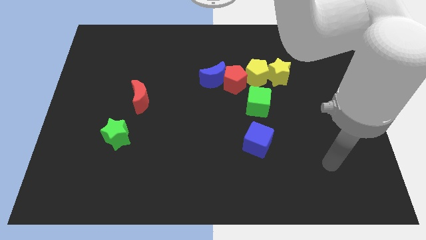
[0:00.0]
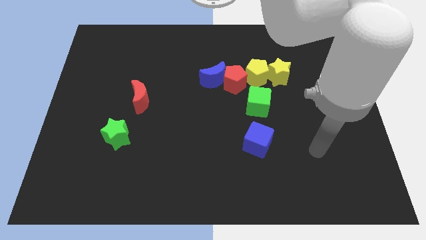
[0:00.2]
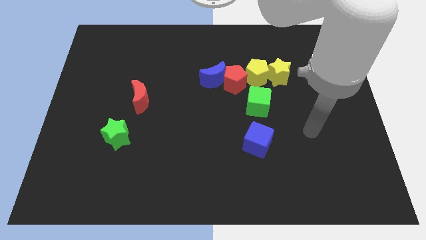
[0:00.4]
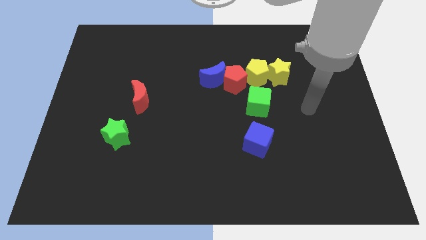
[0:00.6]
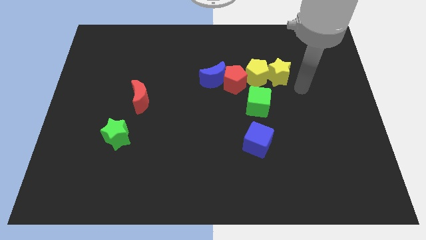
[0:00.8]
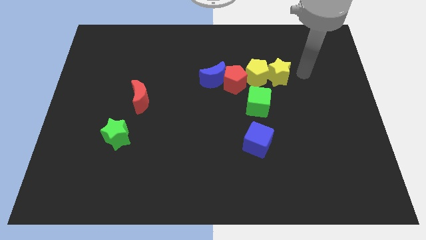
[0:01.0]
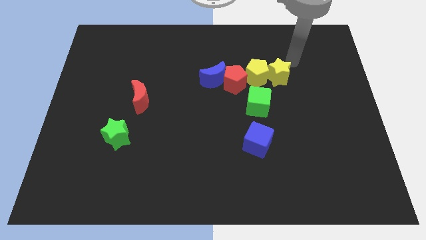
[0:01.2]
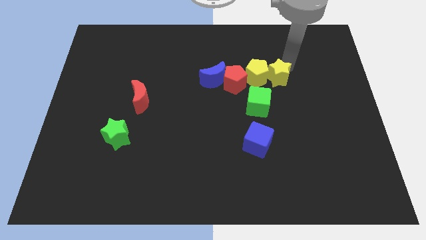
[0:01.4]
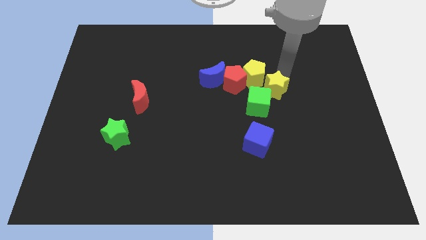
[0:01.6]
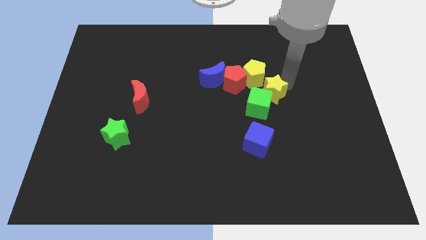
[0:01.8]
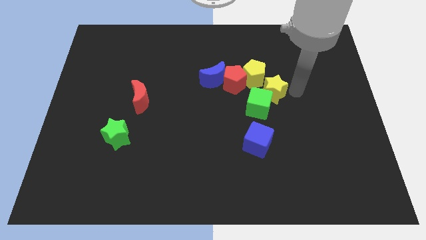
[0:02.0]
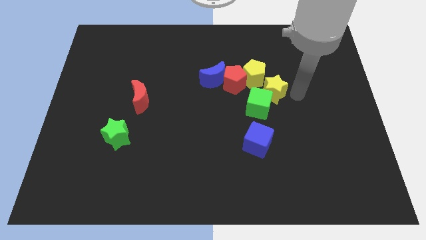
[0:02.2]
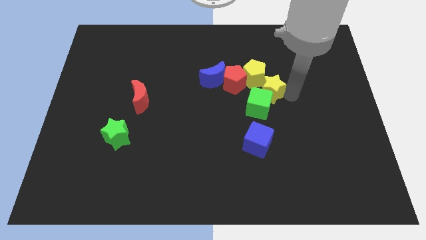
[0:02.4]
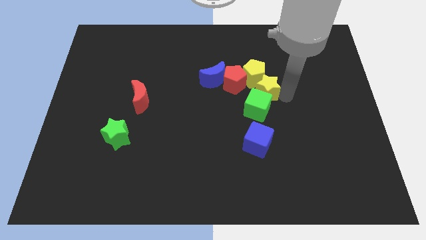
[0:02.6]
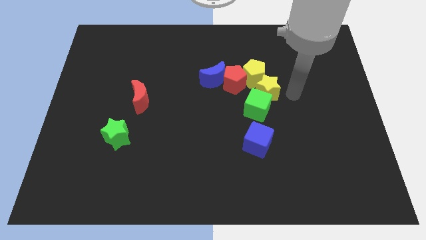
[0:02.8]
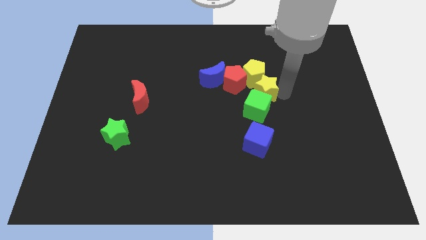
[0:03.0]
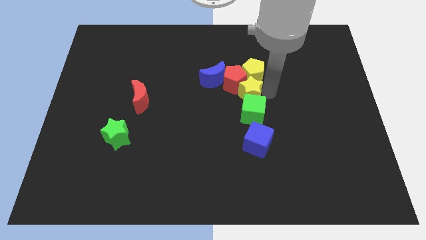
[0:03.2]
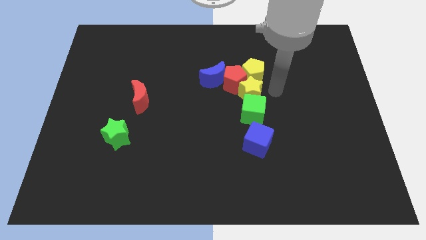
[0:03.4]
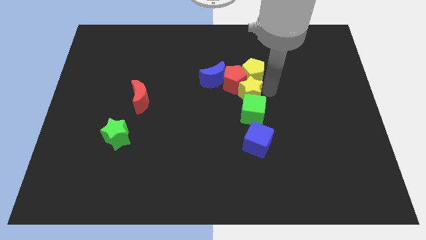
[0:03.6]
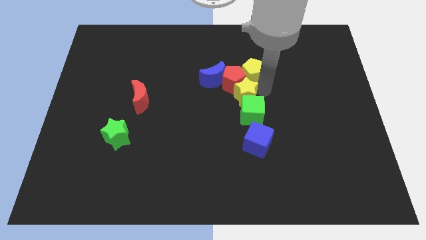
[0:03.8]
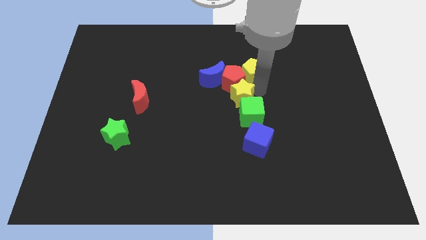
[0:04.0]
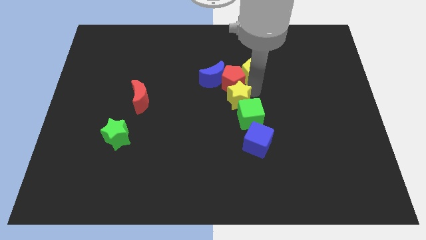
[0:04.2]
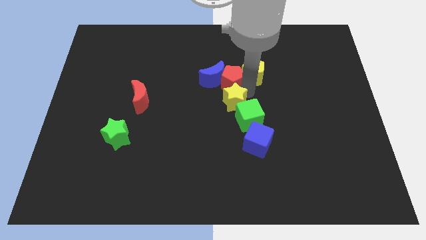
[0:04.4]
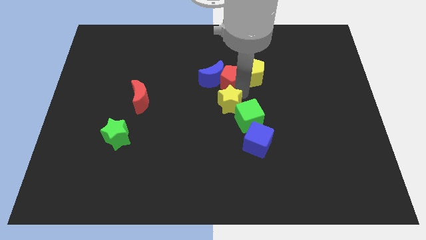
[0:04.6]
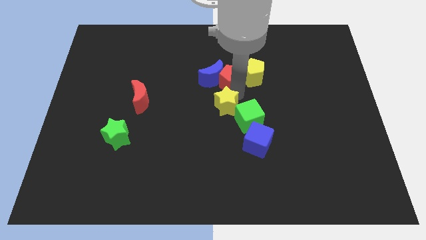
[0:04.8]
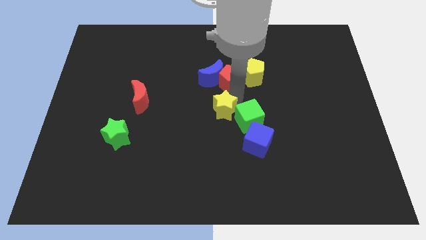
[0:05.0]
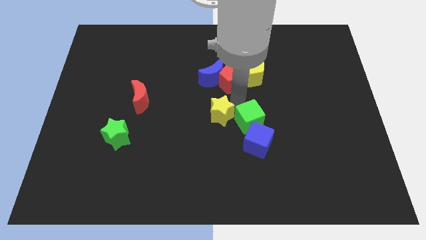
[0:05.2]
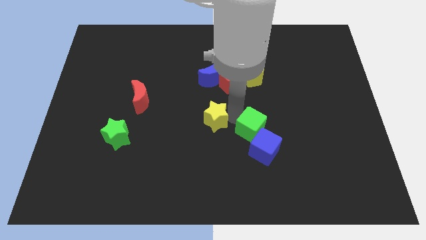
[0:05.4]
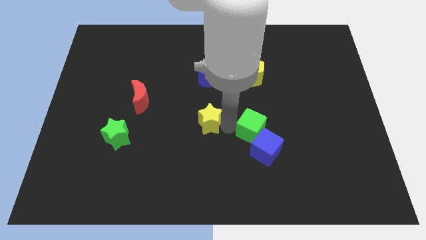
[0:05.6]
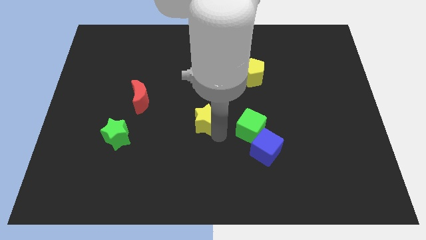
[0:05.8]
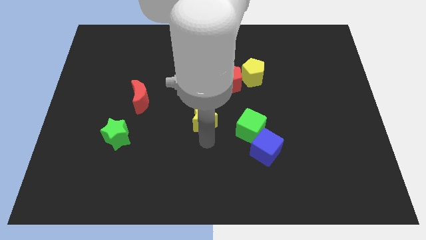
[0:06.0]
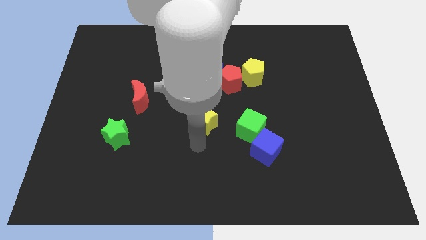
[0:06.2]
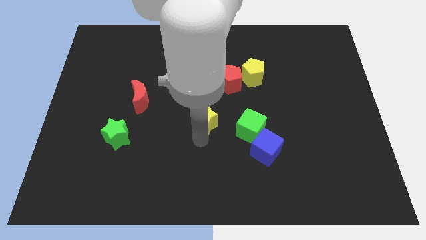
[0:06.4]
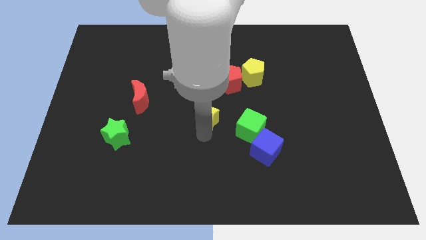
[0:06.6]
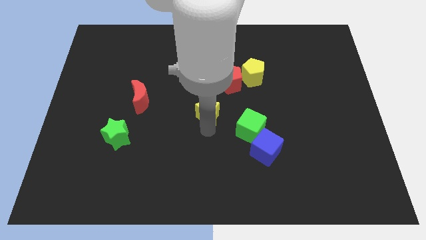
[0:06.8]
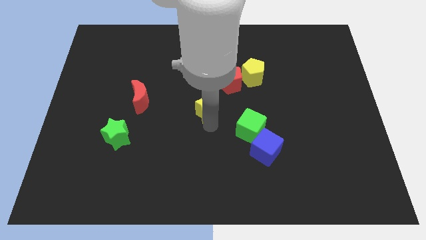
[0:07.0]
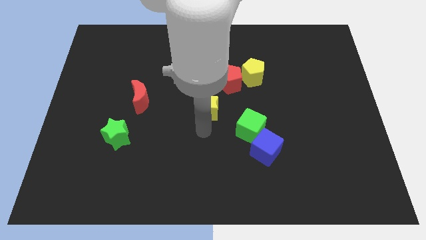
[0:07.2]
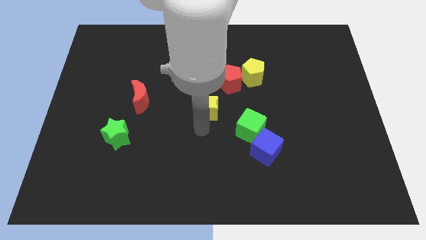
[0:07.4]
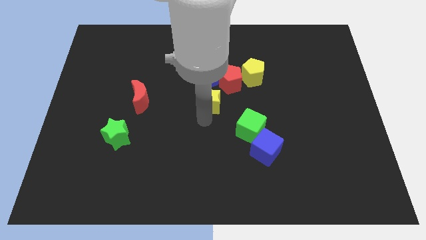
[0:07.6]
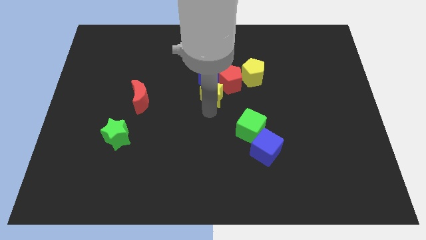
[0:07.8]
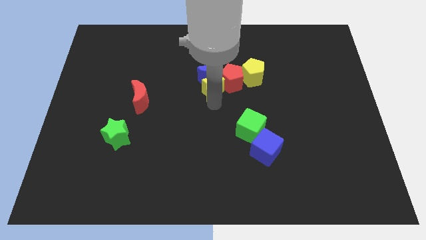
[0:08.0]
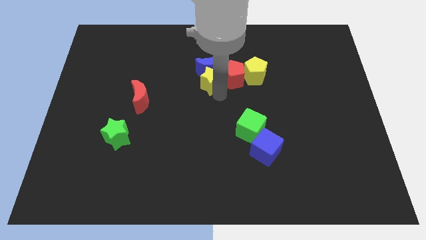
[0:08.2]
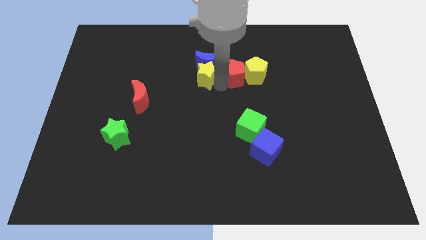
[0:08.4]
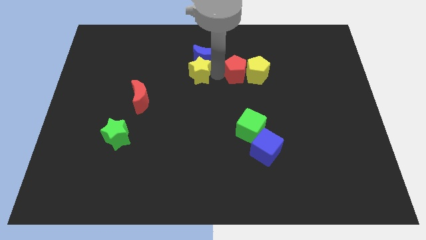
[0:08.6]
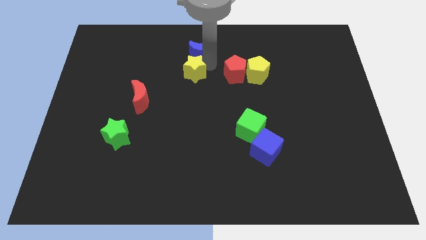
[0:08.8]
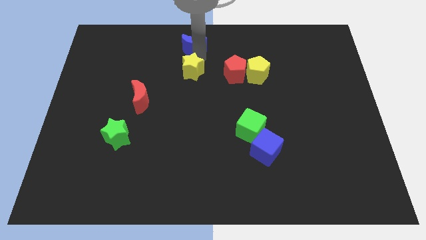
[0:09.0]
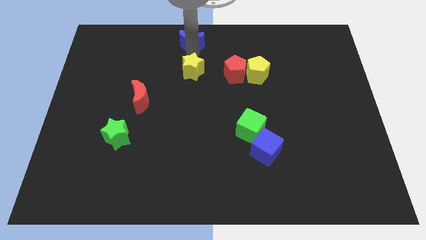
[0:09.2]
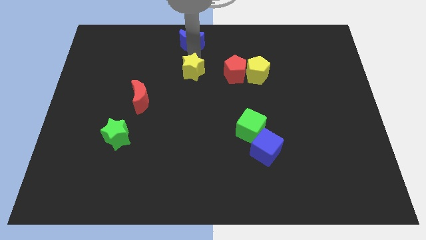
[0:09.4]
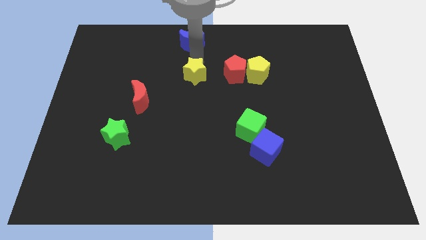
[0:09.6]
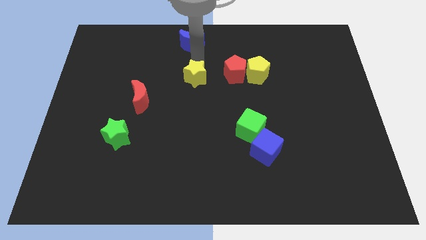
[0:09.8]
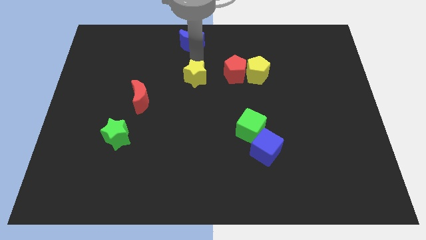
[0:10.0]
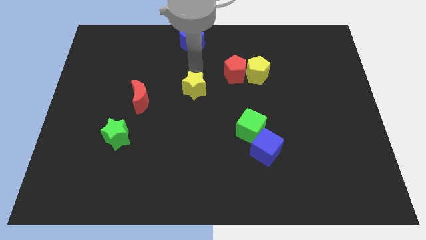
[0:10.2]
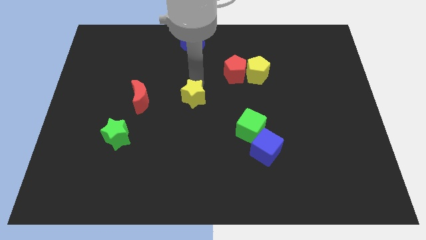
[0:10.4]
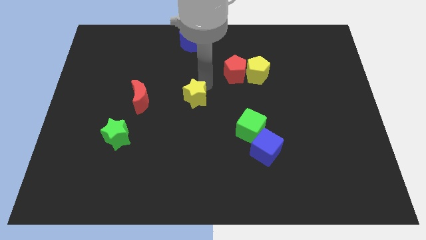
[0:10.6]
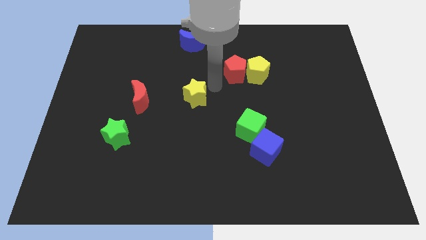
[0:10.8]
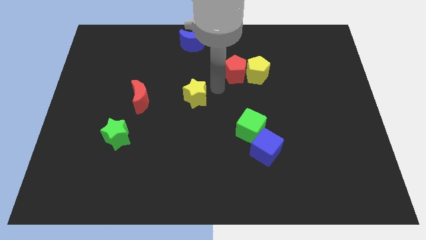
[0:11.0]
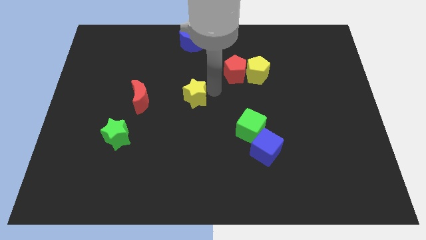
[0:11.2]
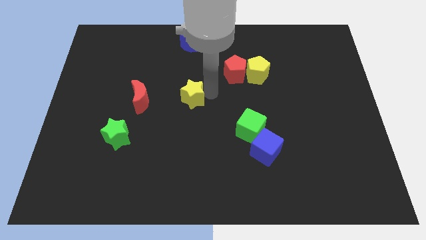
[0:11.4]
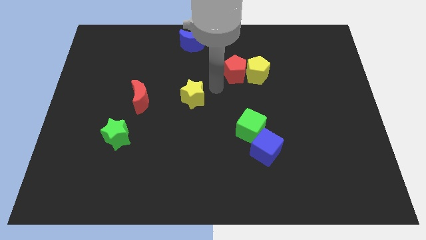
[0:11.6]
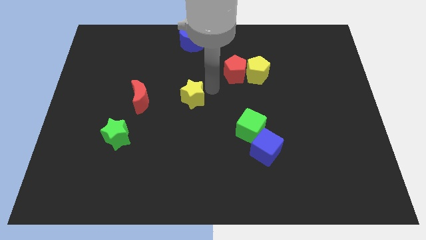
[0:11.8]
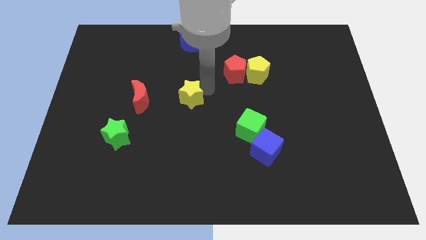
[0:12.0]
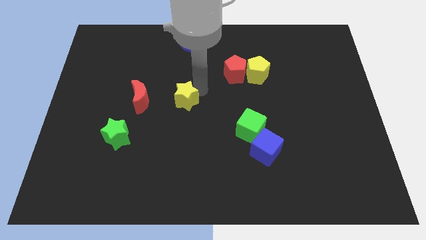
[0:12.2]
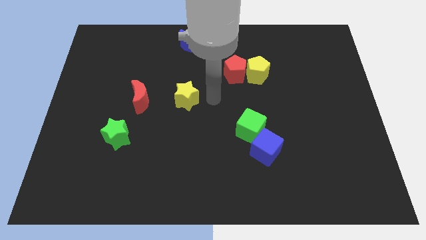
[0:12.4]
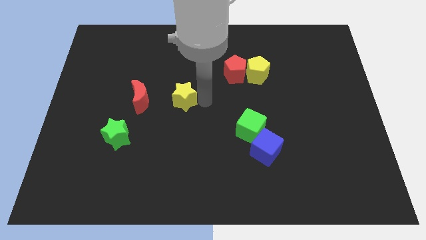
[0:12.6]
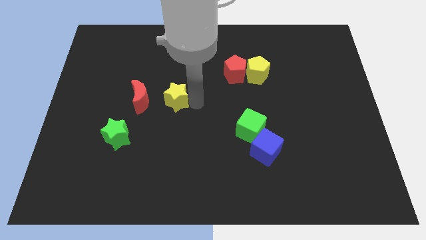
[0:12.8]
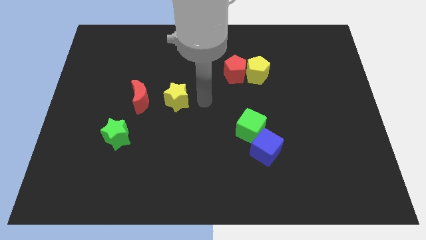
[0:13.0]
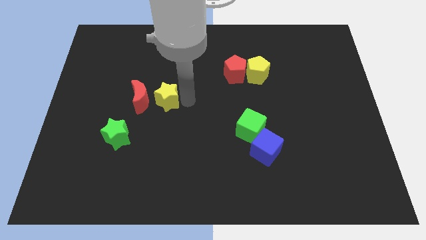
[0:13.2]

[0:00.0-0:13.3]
push the yellow star towards the red moon

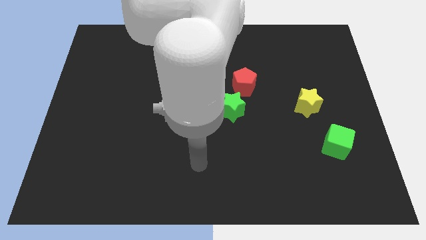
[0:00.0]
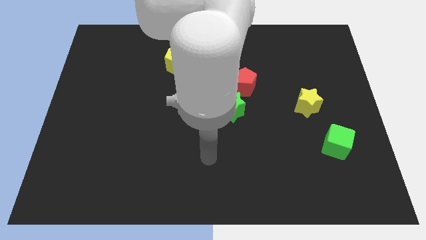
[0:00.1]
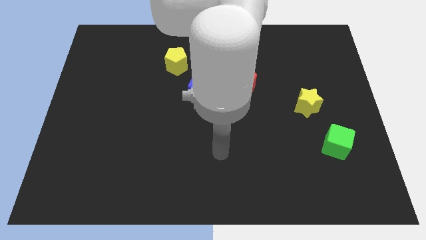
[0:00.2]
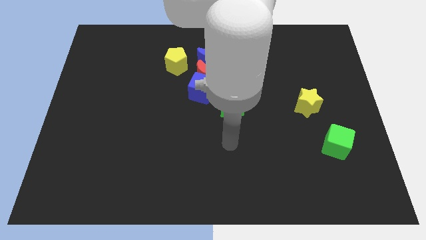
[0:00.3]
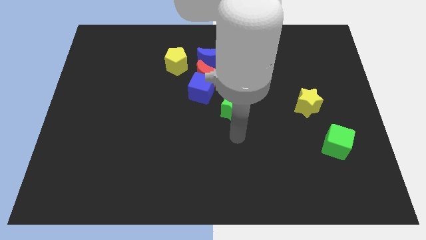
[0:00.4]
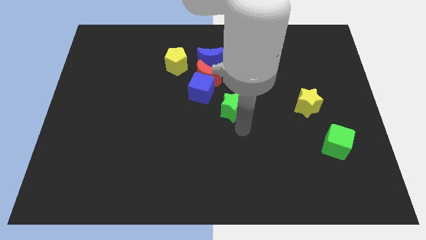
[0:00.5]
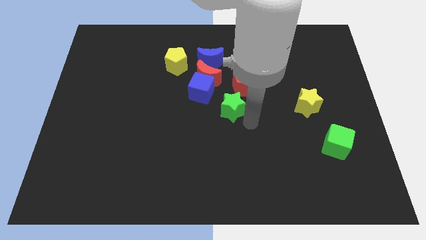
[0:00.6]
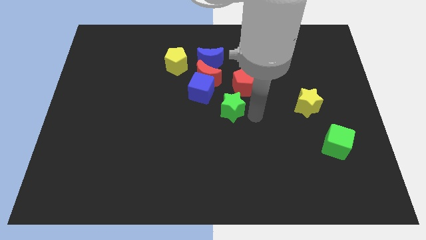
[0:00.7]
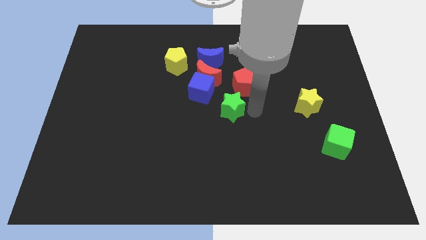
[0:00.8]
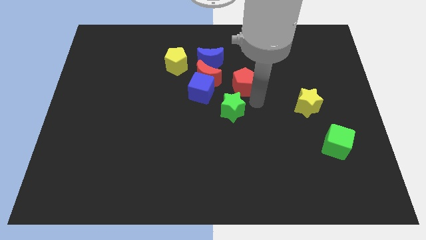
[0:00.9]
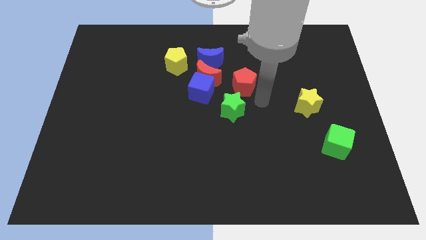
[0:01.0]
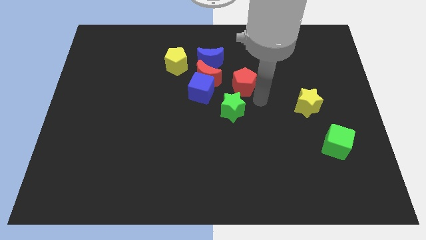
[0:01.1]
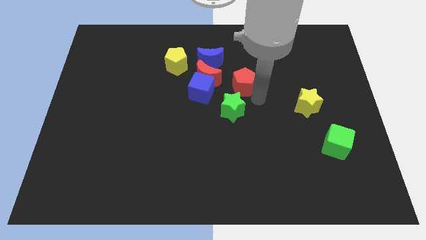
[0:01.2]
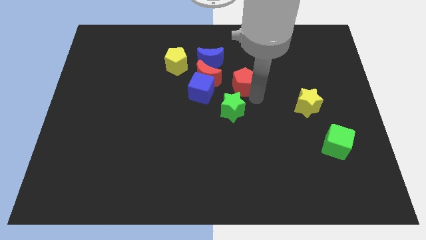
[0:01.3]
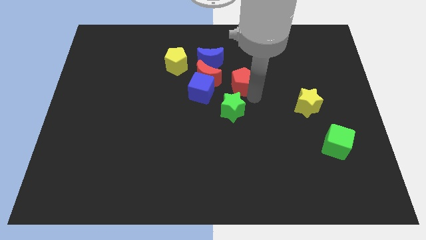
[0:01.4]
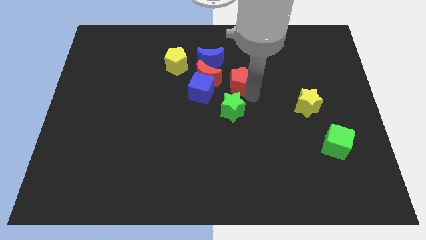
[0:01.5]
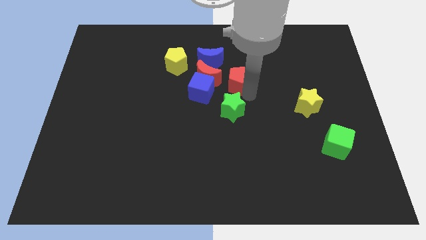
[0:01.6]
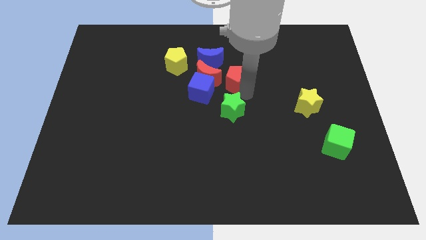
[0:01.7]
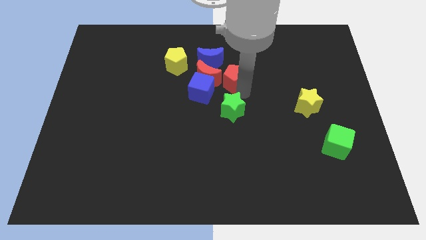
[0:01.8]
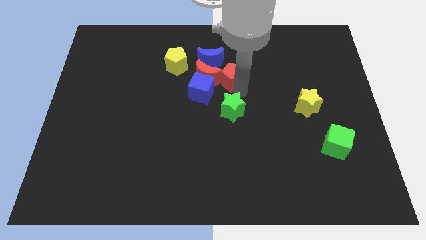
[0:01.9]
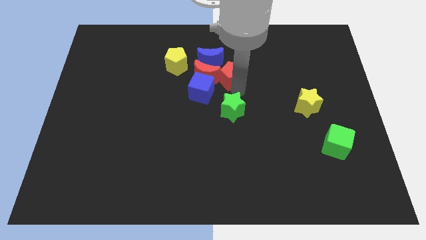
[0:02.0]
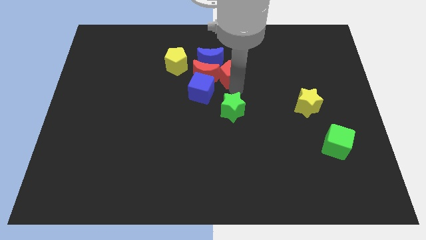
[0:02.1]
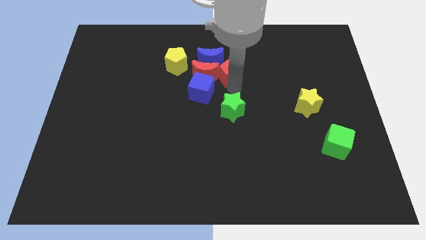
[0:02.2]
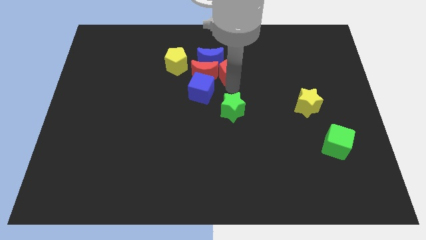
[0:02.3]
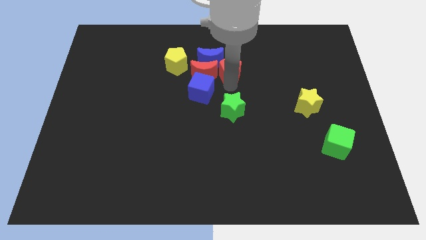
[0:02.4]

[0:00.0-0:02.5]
slide the red pentagon close to the blue moon
